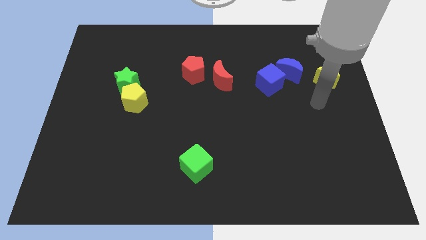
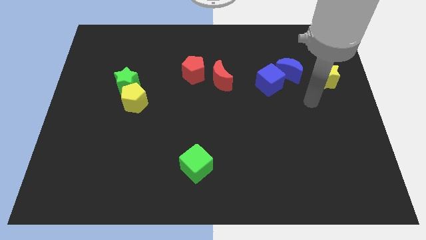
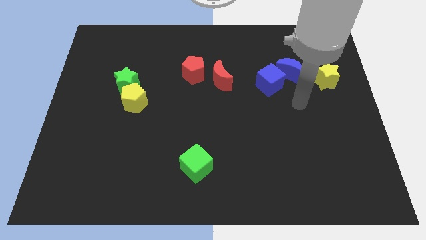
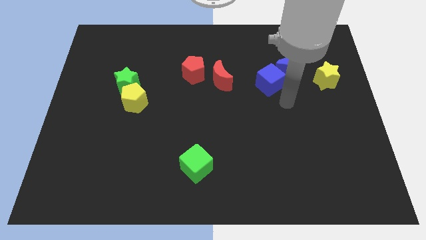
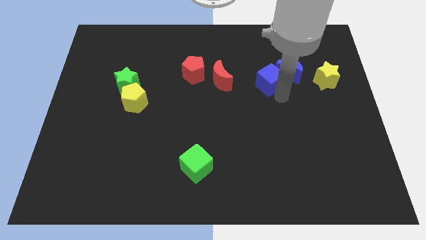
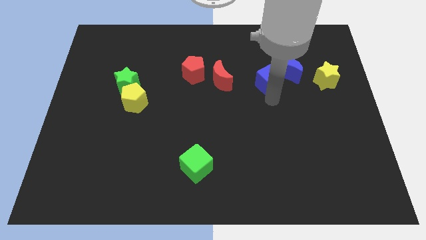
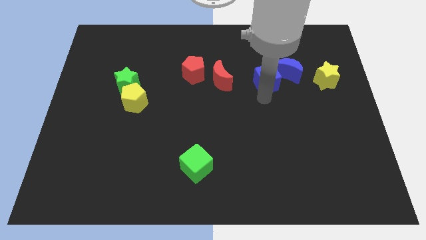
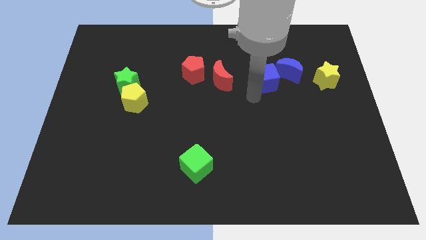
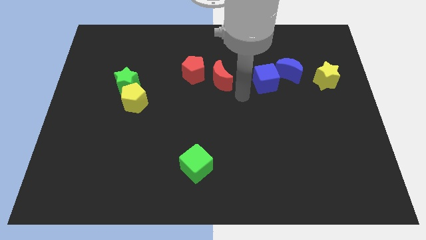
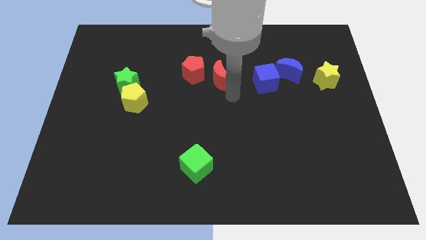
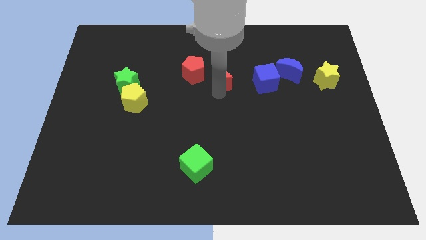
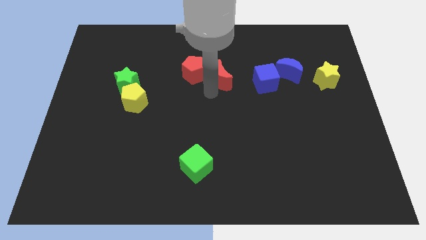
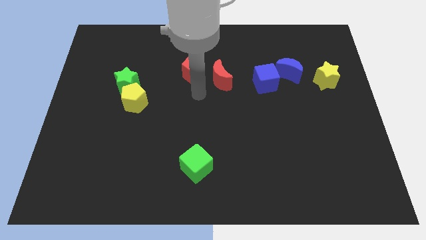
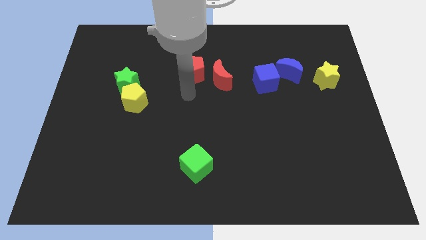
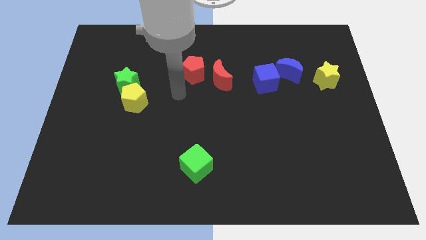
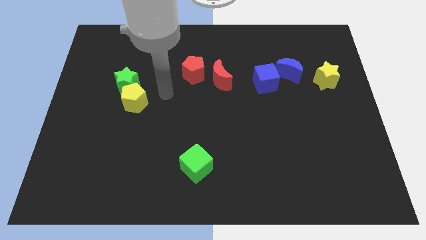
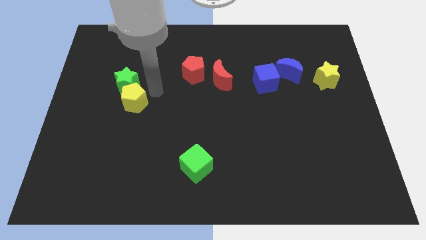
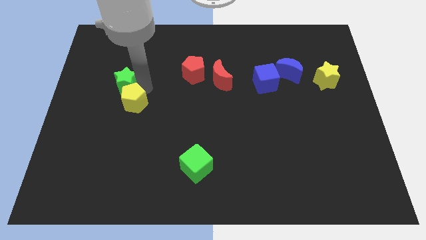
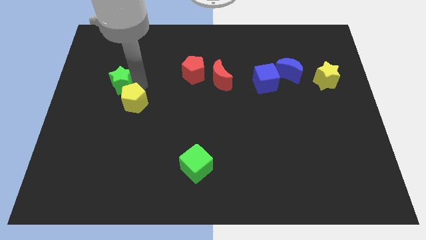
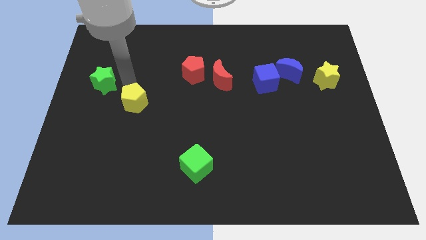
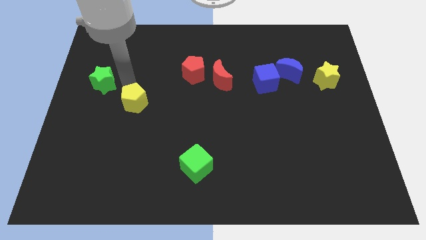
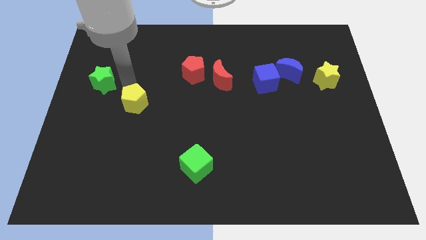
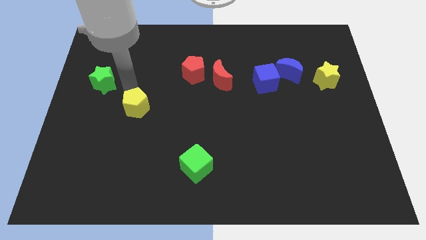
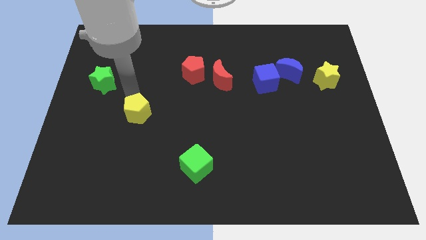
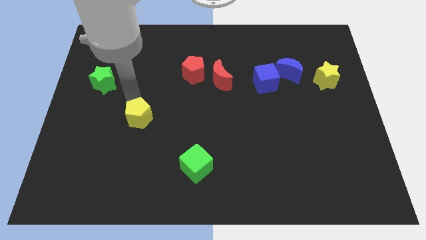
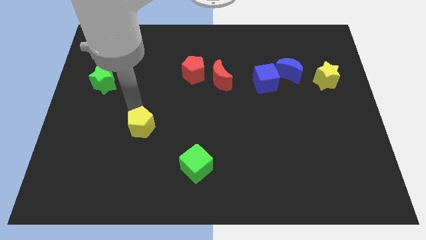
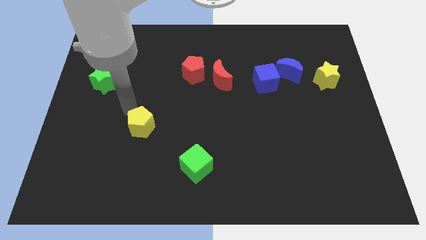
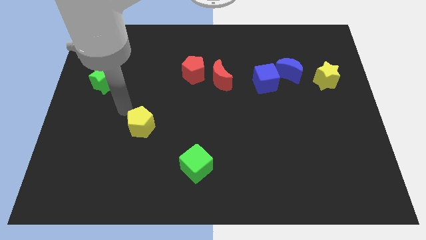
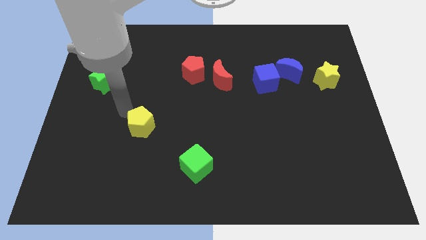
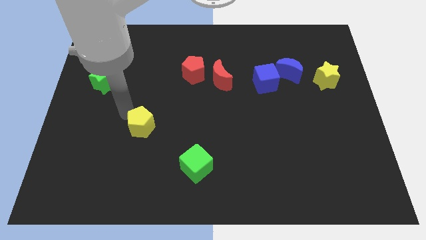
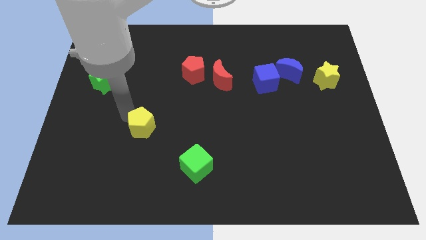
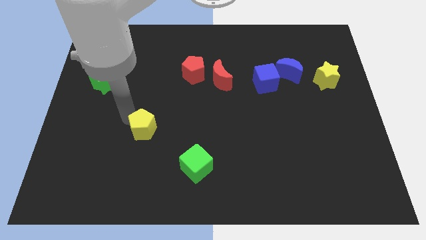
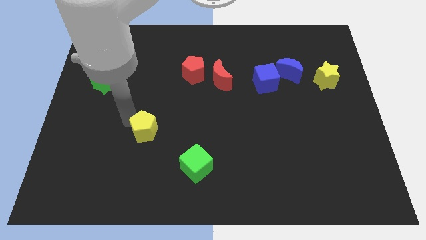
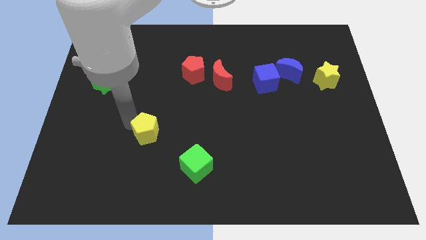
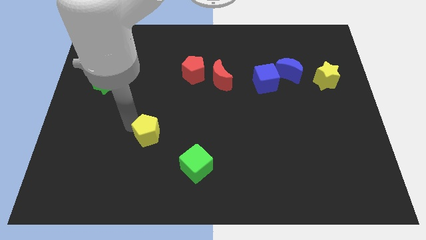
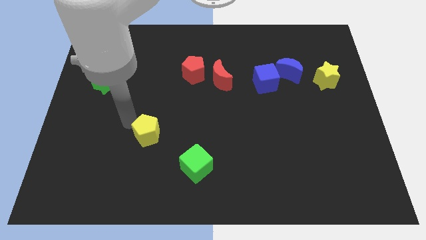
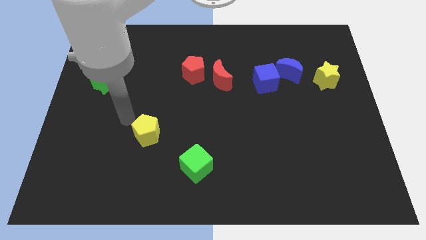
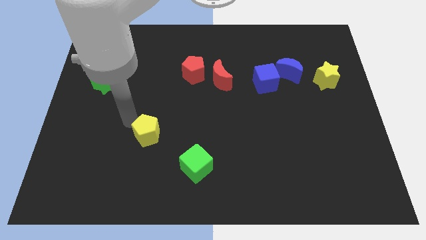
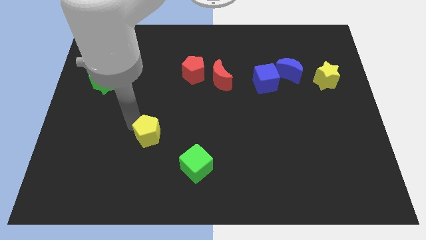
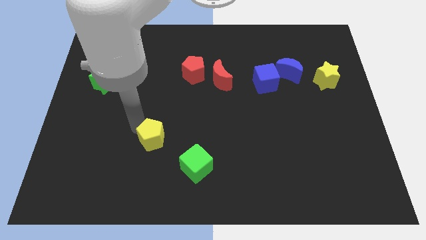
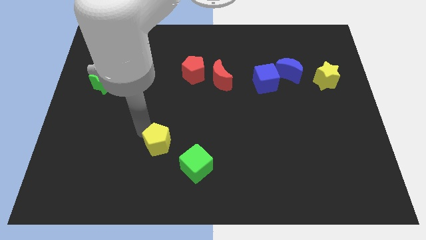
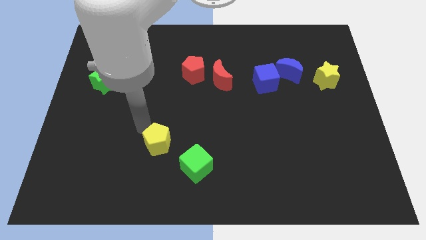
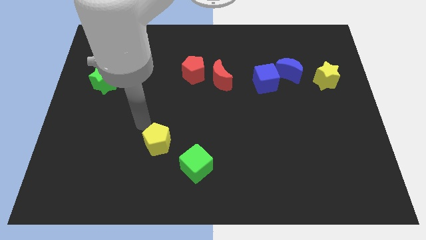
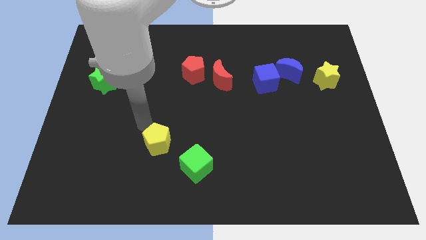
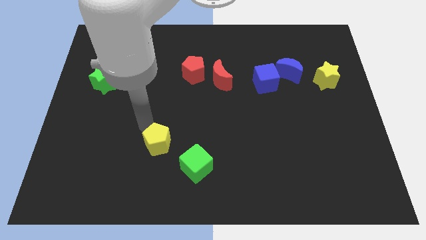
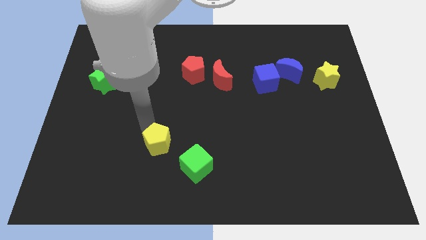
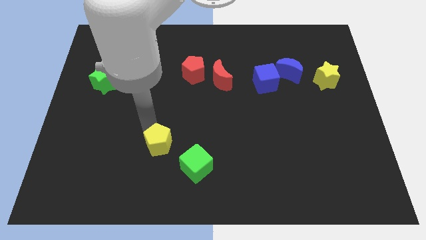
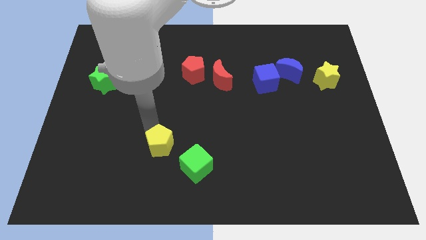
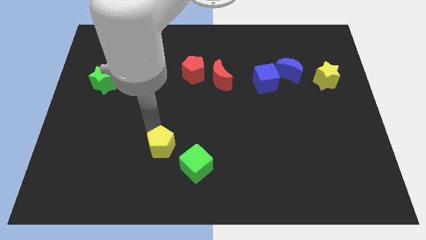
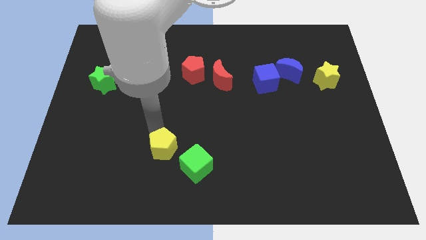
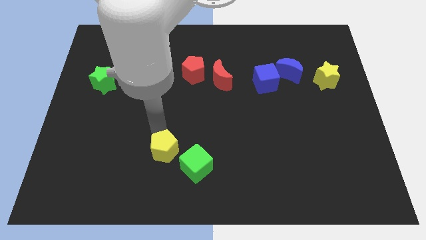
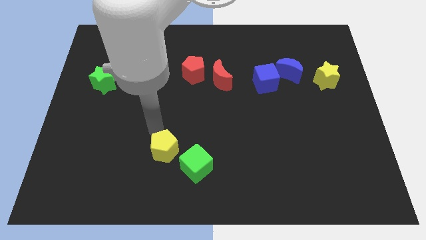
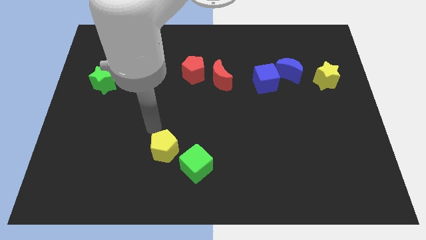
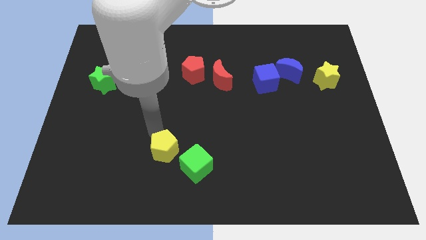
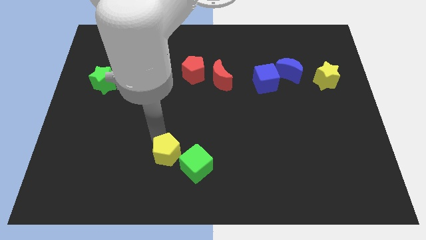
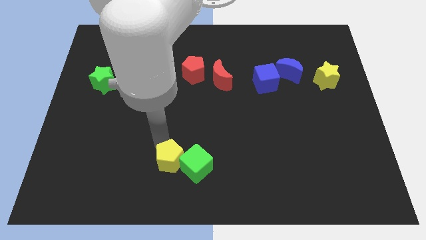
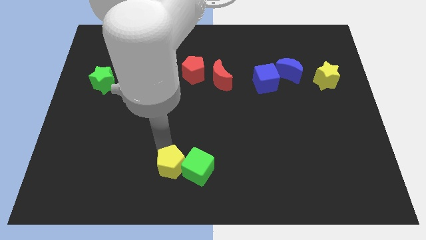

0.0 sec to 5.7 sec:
put the yellow pentagon to the bottom side

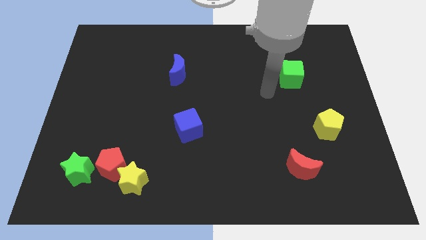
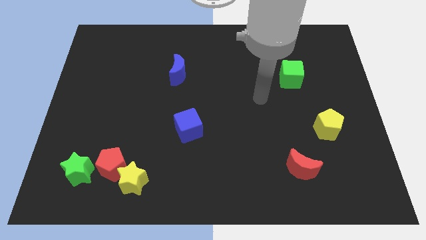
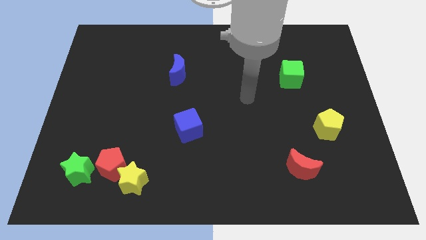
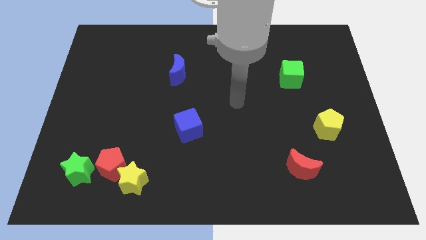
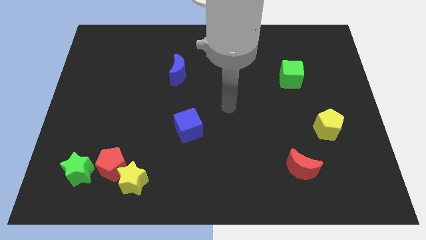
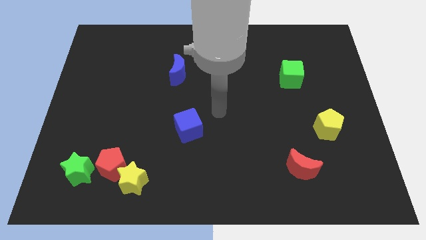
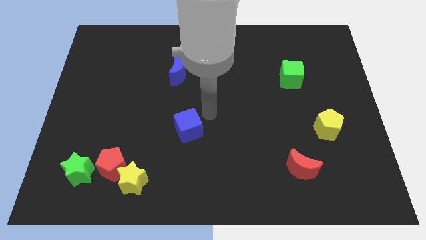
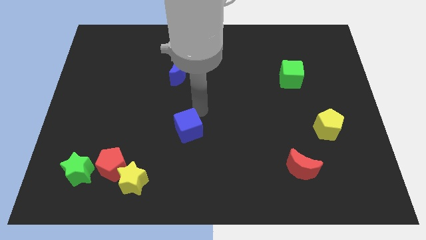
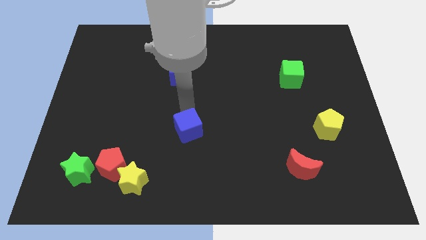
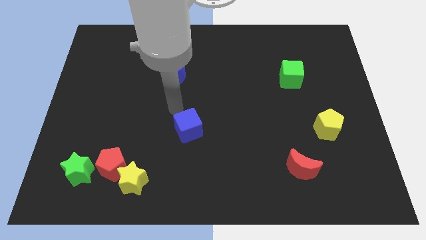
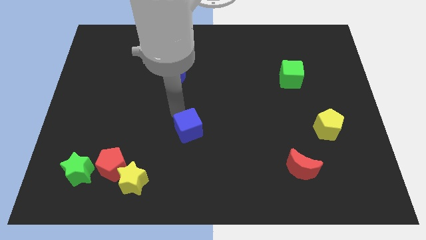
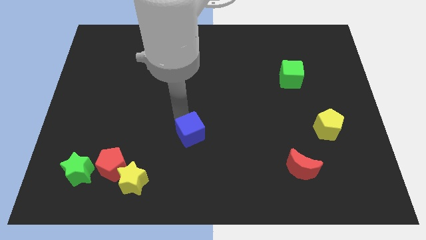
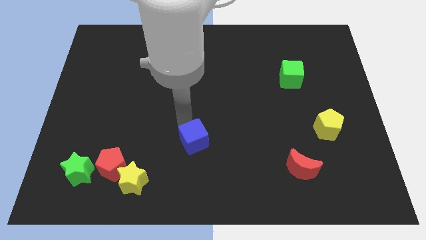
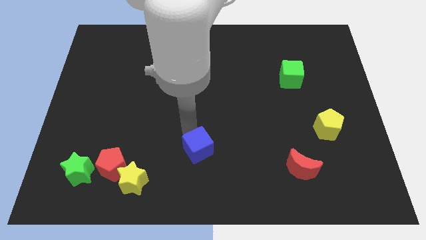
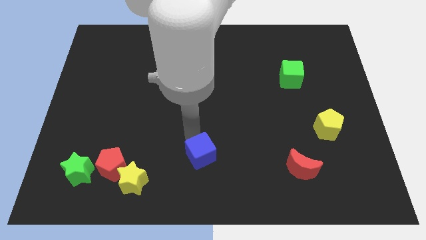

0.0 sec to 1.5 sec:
move the blue cube to the bottom side

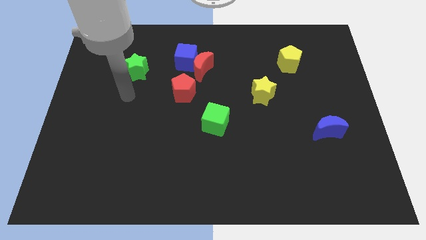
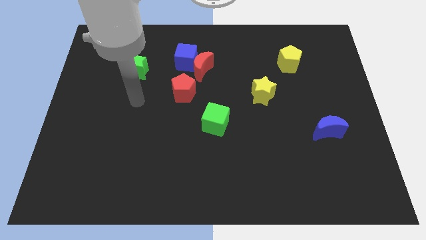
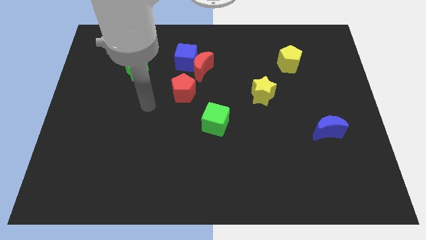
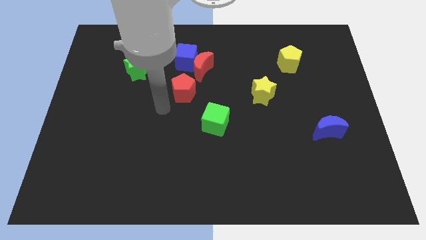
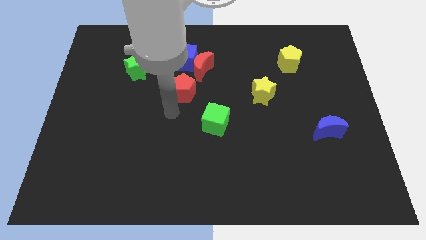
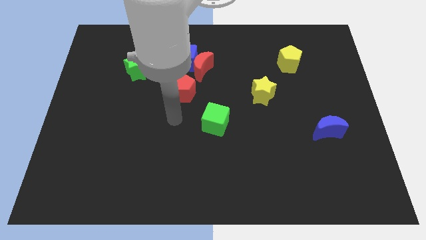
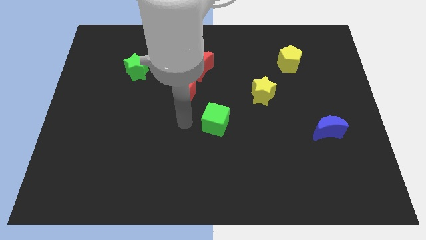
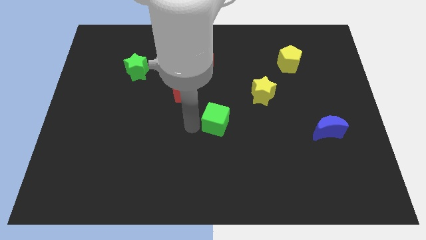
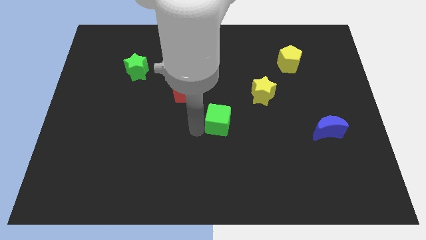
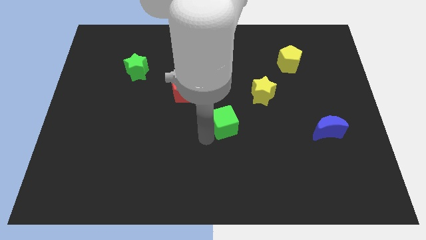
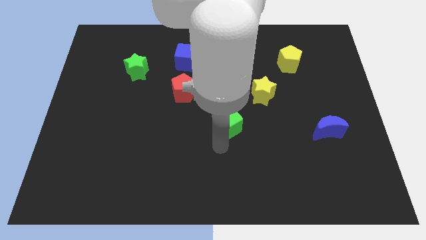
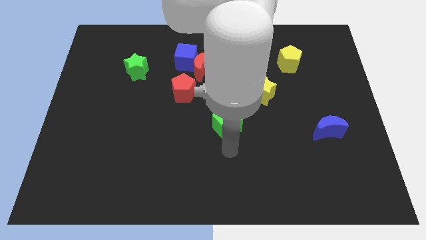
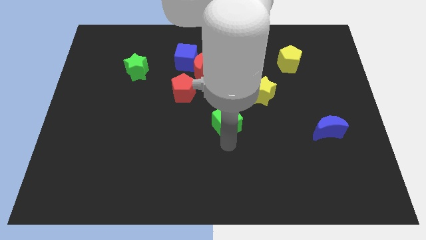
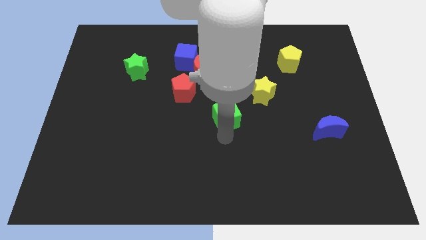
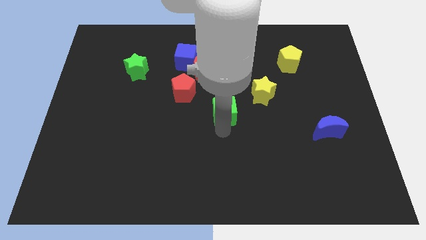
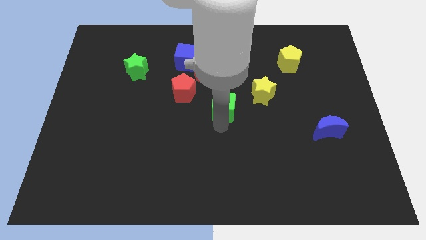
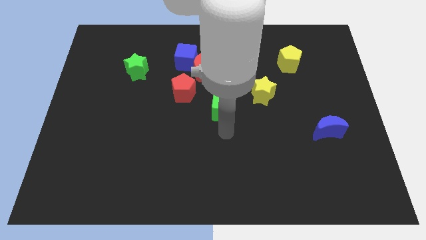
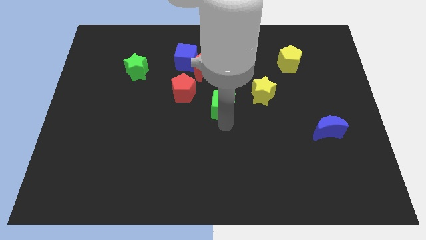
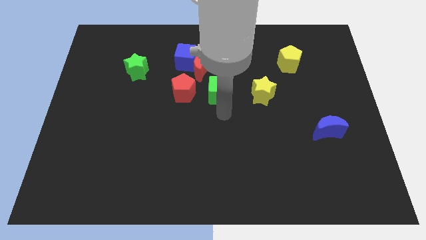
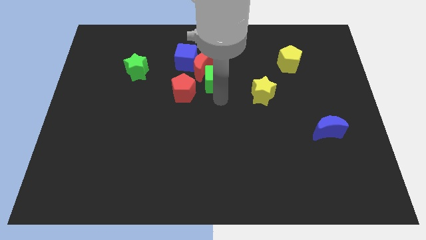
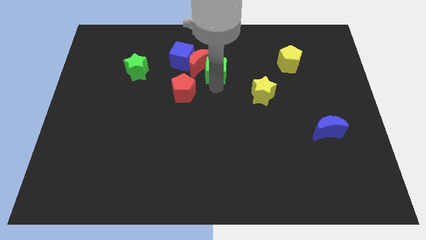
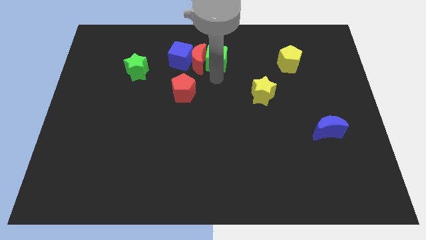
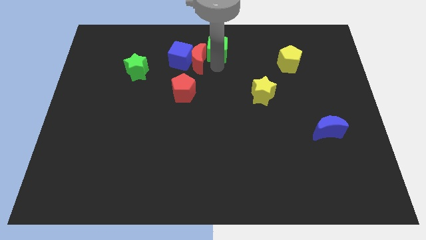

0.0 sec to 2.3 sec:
move the green cube to the top side
